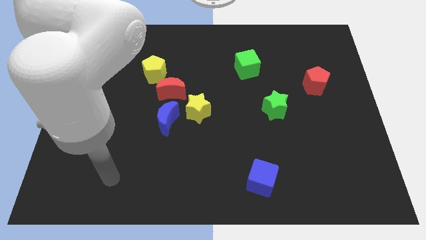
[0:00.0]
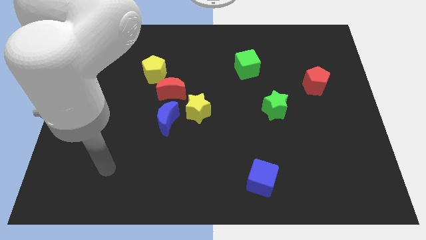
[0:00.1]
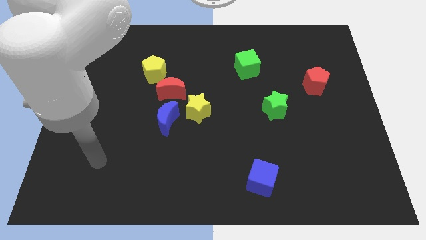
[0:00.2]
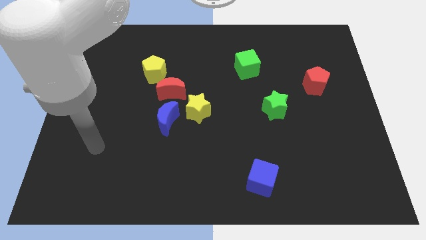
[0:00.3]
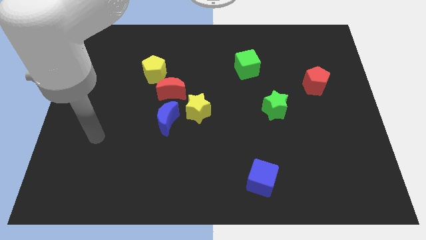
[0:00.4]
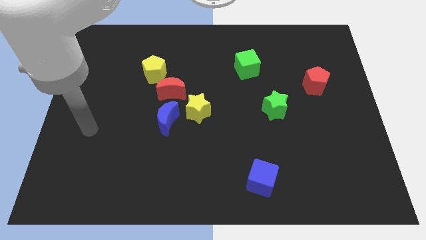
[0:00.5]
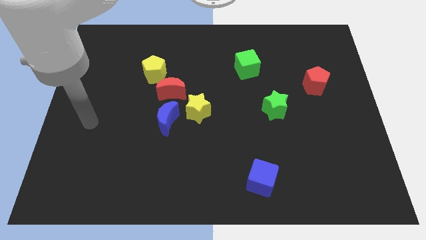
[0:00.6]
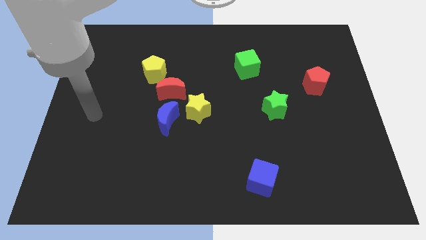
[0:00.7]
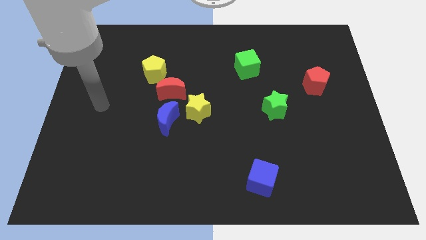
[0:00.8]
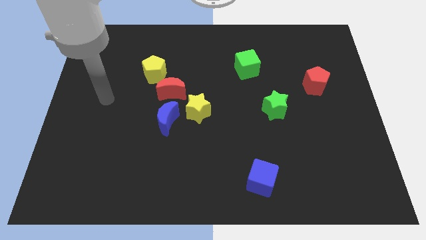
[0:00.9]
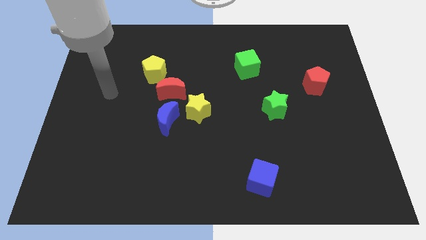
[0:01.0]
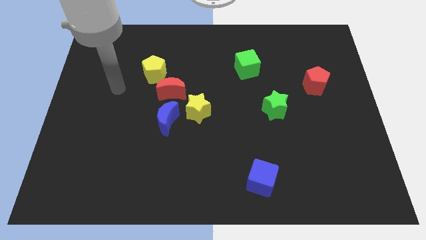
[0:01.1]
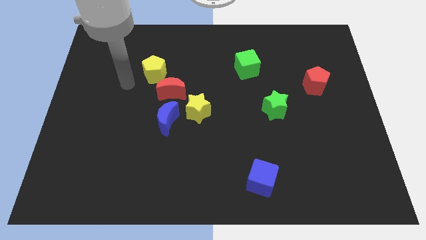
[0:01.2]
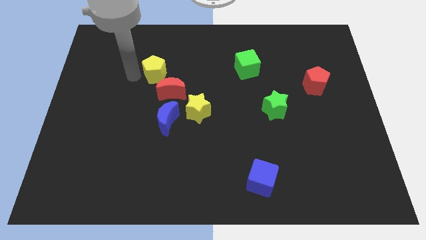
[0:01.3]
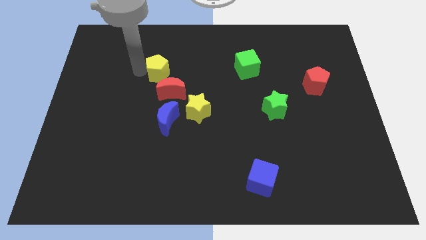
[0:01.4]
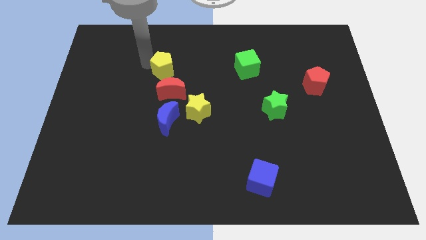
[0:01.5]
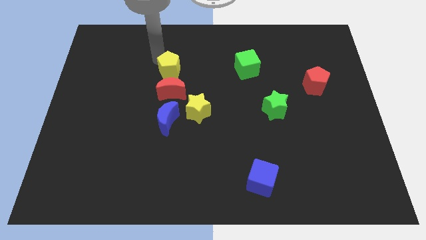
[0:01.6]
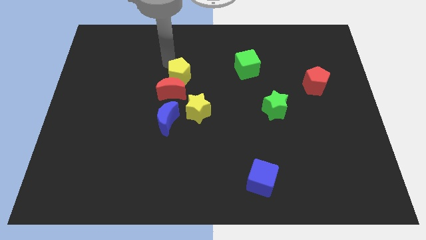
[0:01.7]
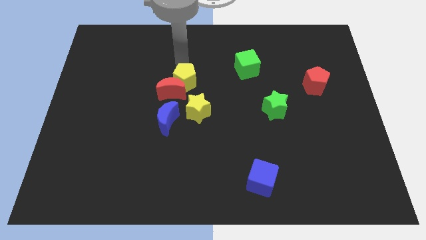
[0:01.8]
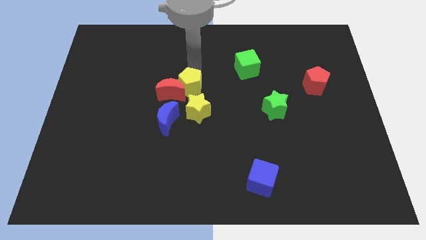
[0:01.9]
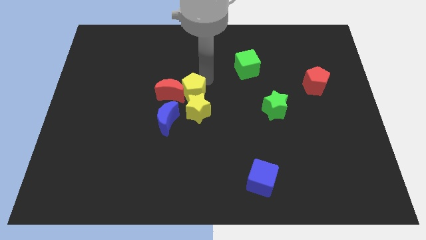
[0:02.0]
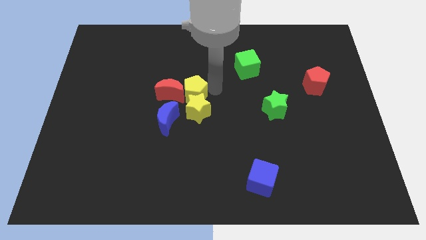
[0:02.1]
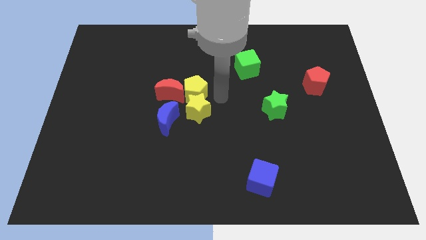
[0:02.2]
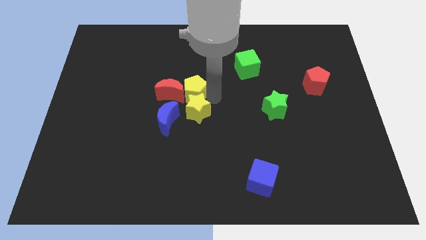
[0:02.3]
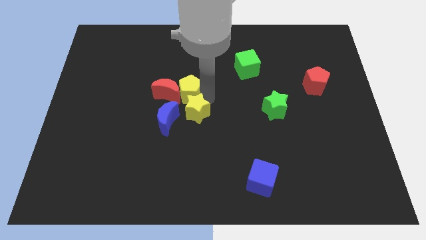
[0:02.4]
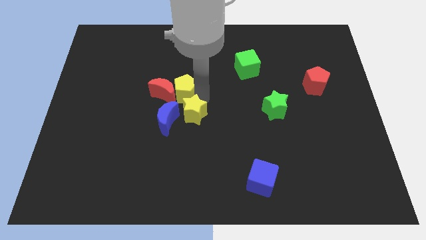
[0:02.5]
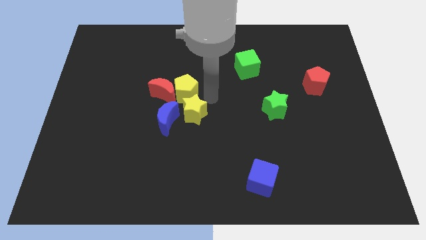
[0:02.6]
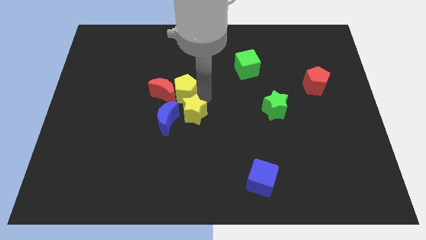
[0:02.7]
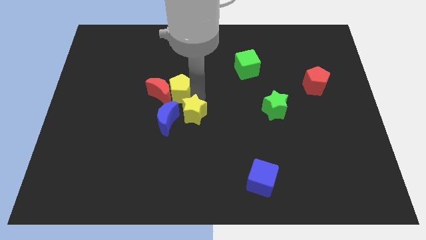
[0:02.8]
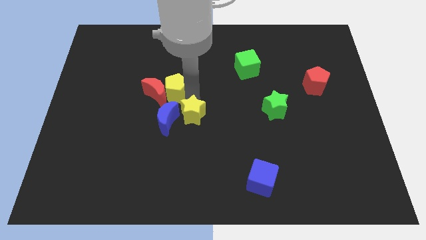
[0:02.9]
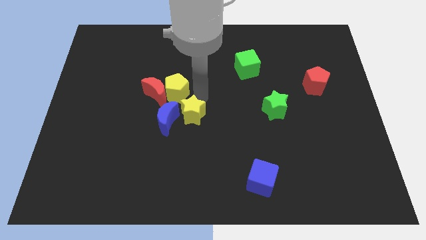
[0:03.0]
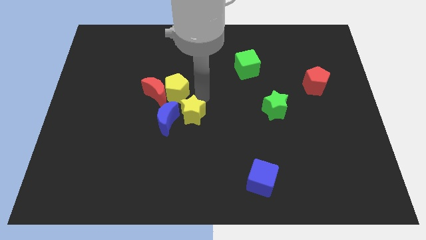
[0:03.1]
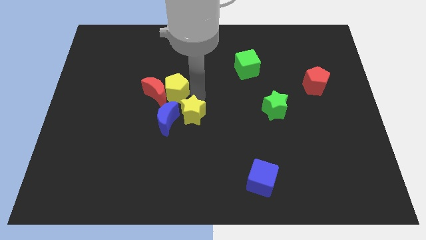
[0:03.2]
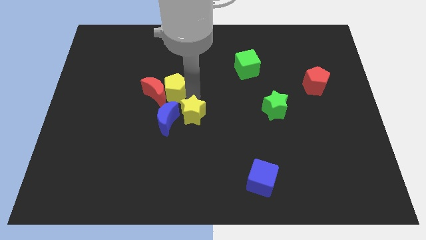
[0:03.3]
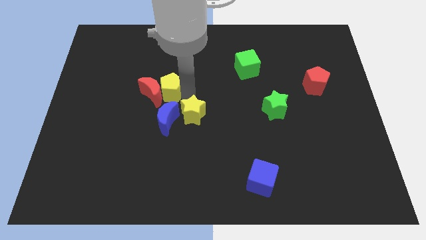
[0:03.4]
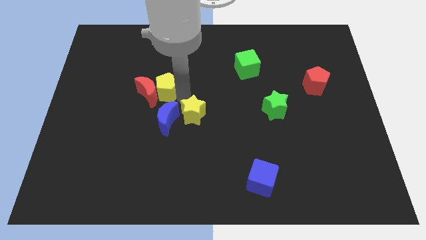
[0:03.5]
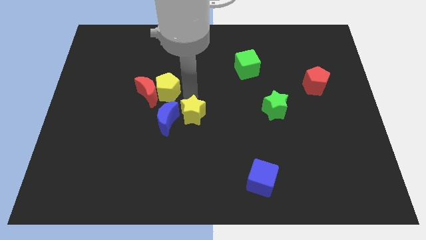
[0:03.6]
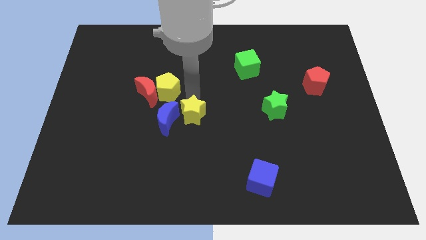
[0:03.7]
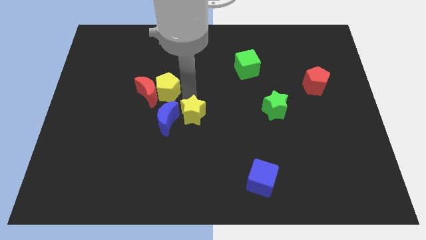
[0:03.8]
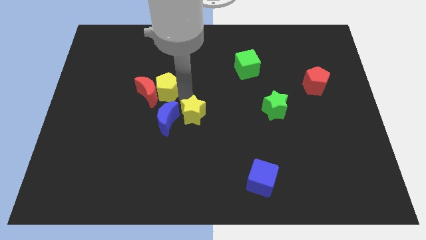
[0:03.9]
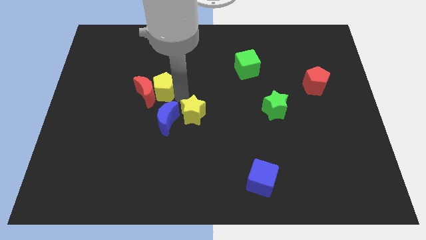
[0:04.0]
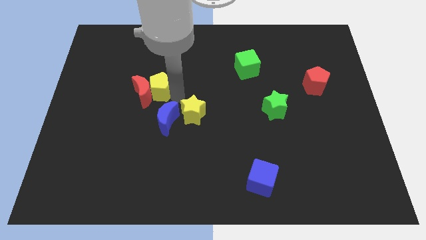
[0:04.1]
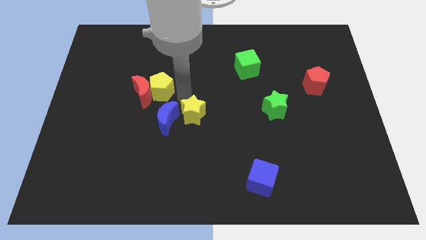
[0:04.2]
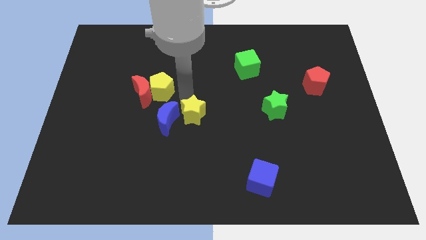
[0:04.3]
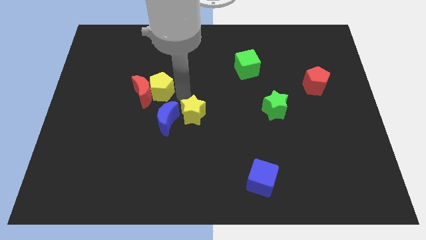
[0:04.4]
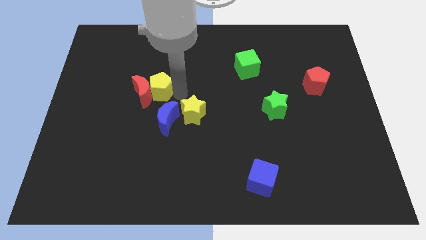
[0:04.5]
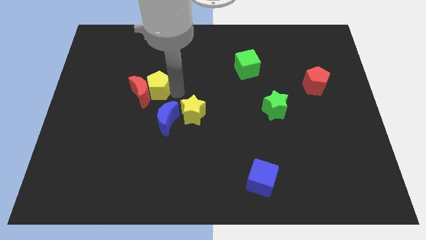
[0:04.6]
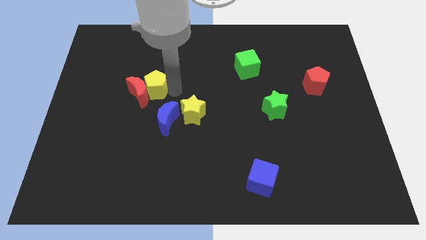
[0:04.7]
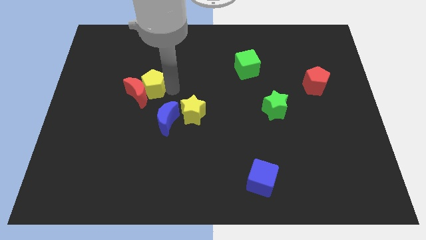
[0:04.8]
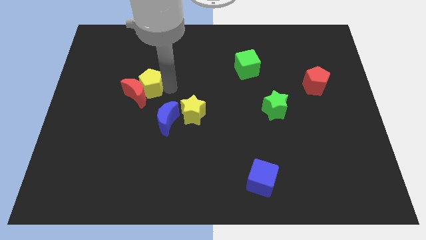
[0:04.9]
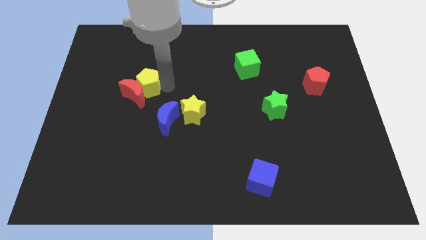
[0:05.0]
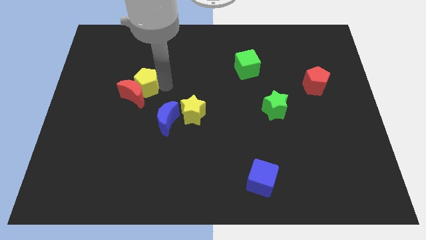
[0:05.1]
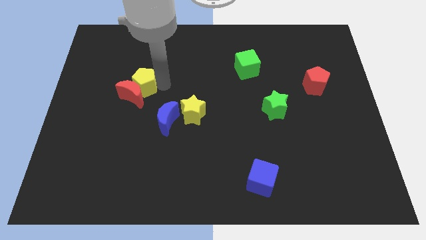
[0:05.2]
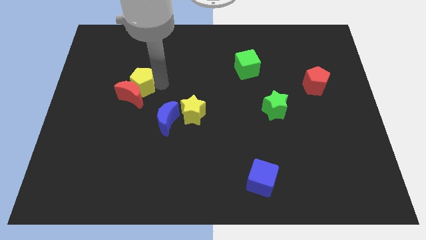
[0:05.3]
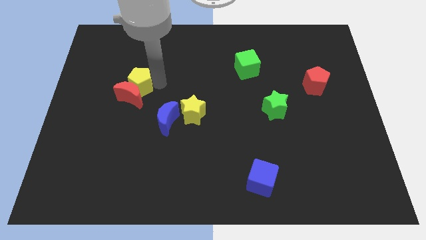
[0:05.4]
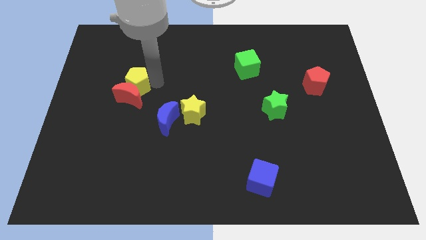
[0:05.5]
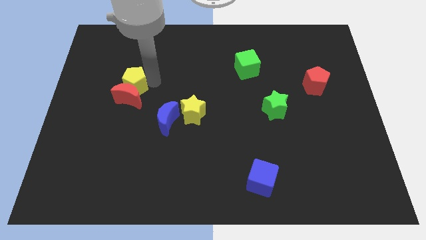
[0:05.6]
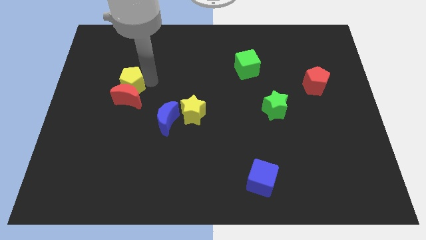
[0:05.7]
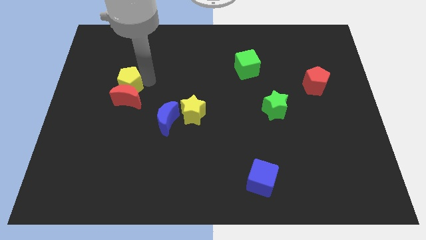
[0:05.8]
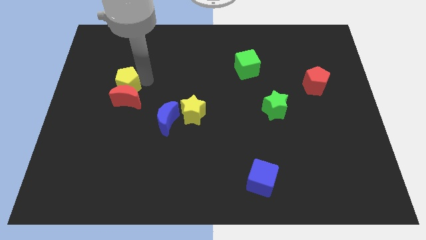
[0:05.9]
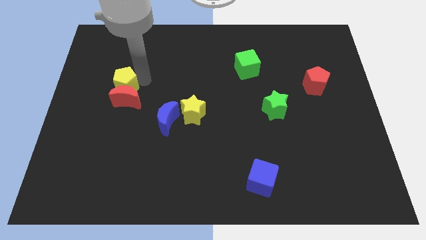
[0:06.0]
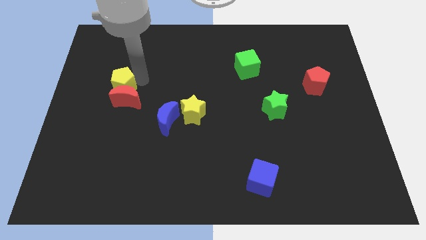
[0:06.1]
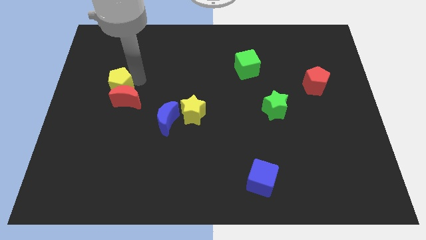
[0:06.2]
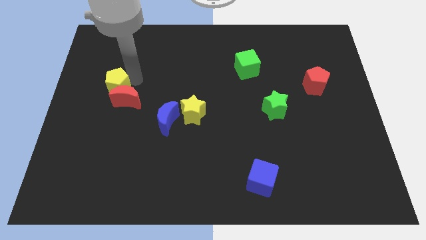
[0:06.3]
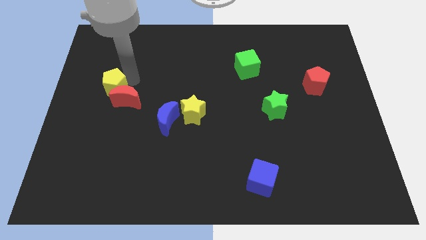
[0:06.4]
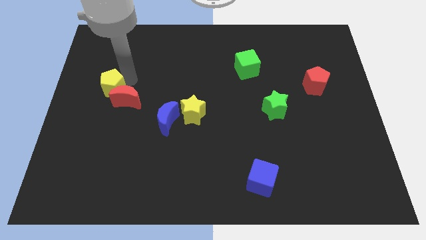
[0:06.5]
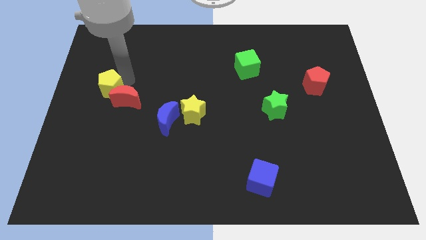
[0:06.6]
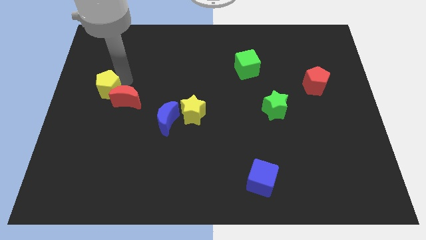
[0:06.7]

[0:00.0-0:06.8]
slide the yellow pentagon to the left side of the board
